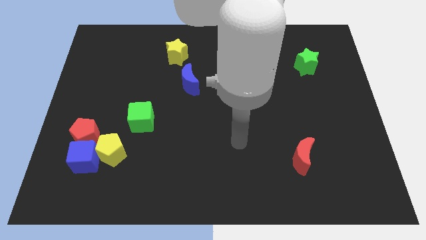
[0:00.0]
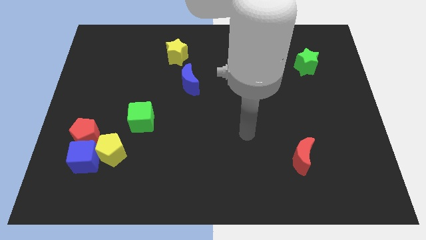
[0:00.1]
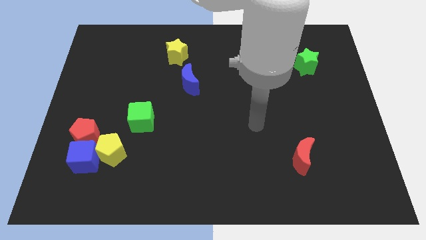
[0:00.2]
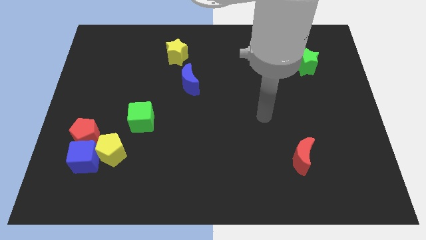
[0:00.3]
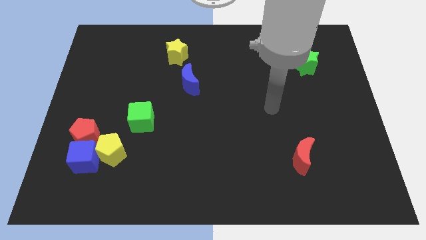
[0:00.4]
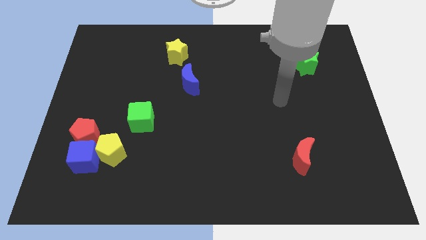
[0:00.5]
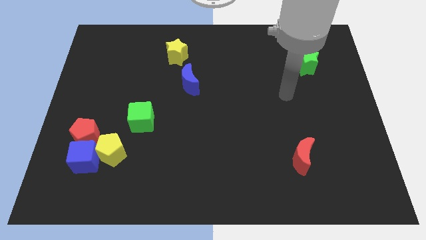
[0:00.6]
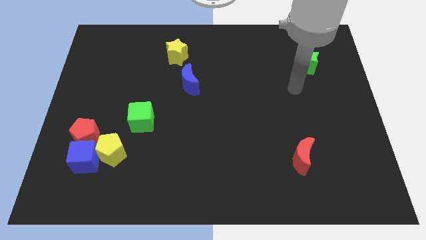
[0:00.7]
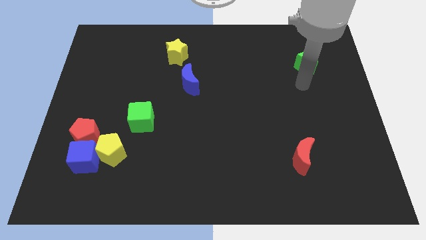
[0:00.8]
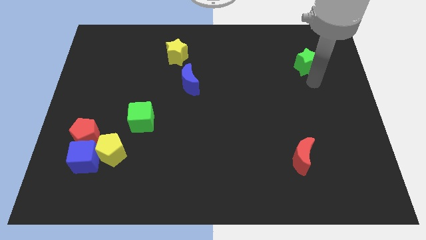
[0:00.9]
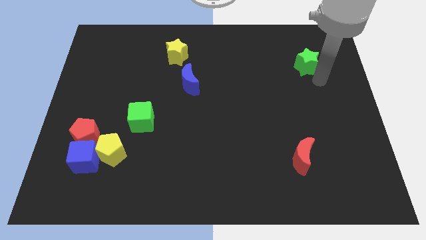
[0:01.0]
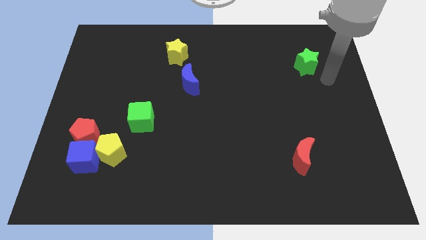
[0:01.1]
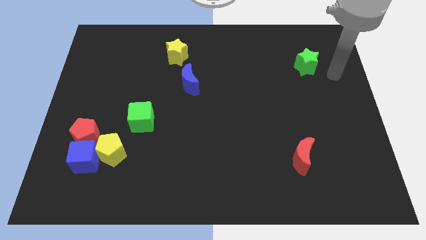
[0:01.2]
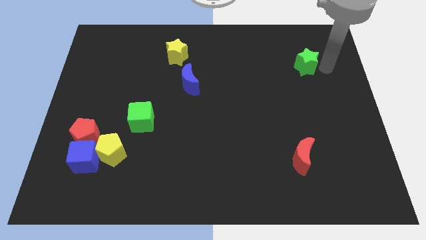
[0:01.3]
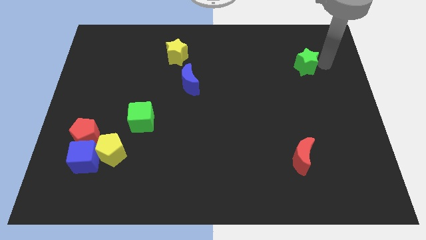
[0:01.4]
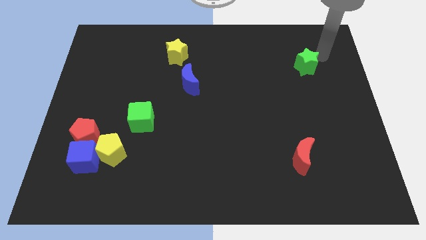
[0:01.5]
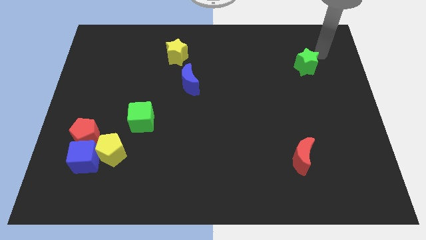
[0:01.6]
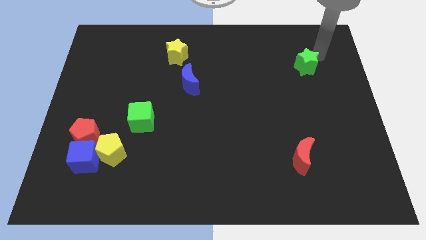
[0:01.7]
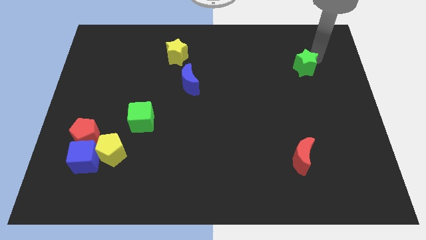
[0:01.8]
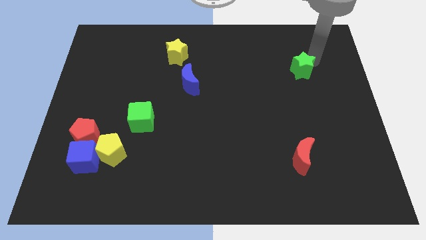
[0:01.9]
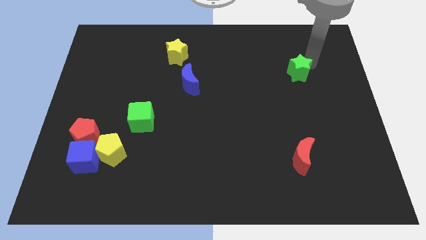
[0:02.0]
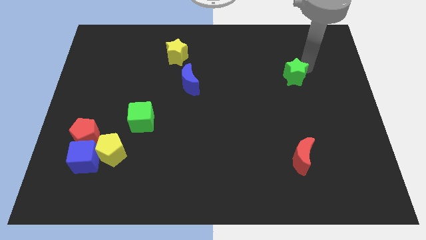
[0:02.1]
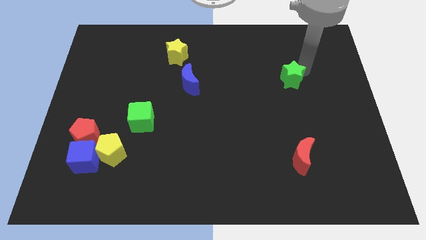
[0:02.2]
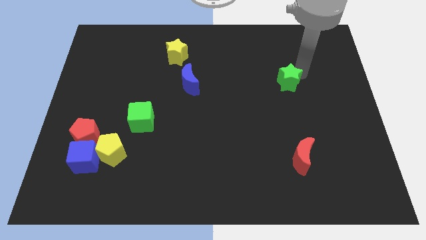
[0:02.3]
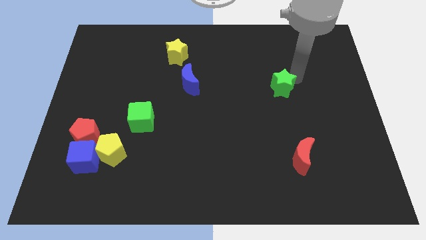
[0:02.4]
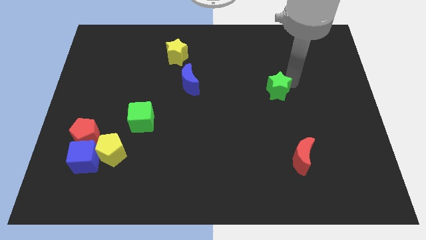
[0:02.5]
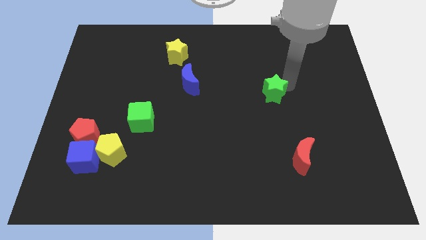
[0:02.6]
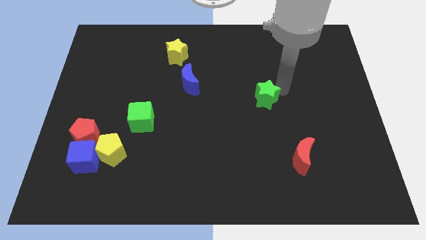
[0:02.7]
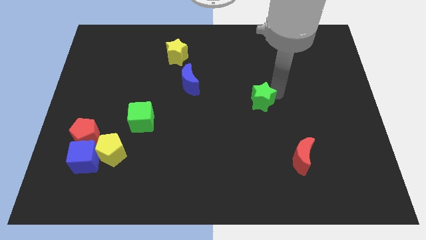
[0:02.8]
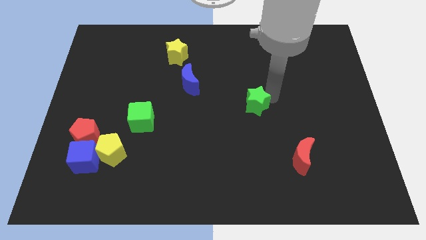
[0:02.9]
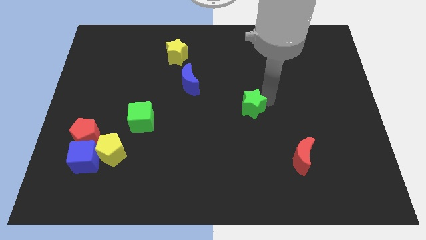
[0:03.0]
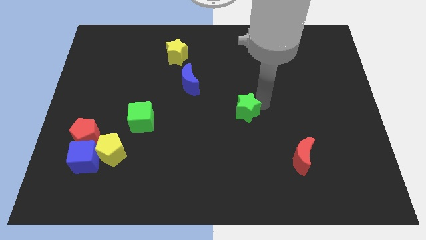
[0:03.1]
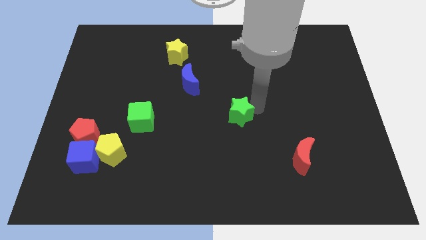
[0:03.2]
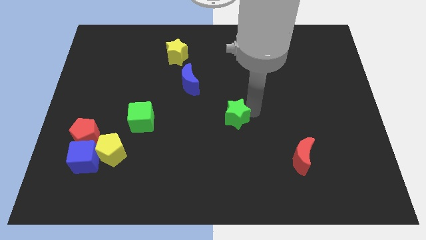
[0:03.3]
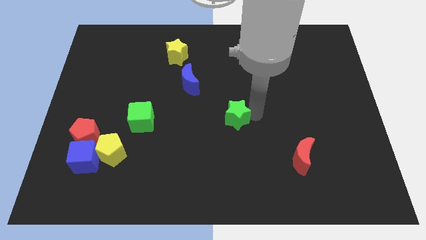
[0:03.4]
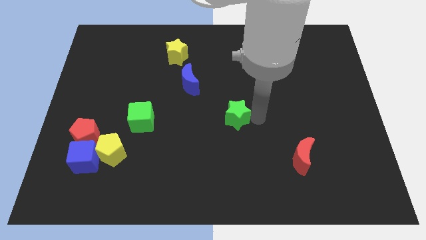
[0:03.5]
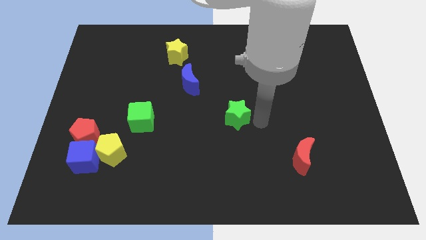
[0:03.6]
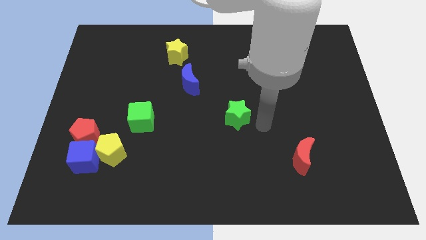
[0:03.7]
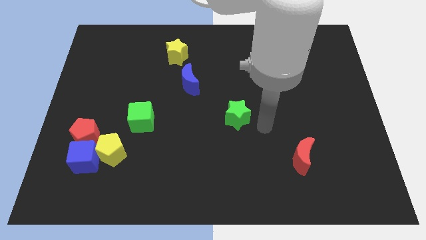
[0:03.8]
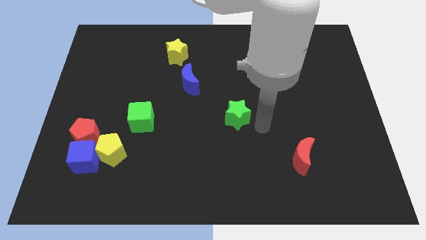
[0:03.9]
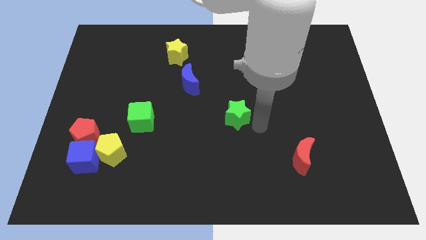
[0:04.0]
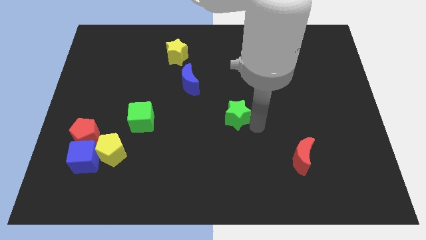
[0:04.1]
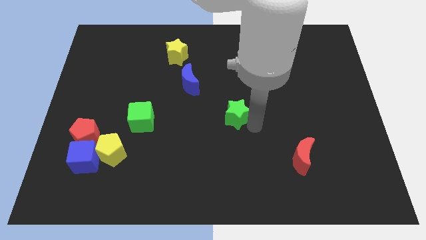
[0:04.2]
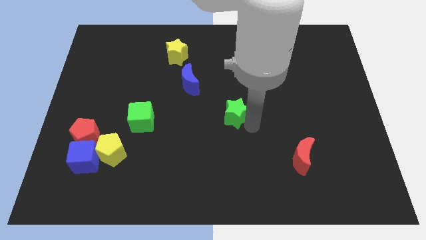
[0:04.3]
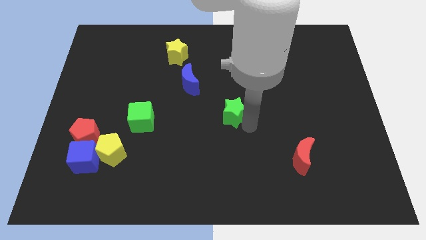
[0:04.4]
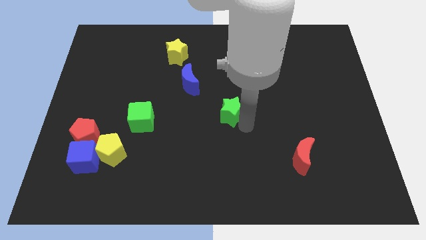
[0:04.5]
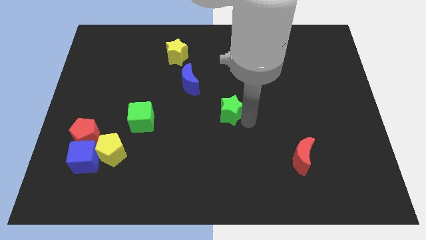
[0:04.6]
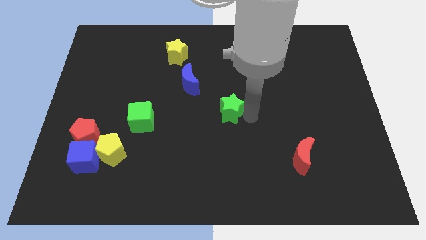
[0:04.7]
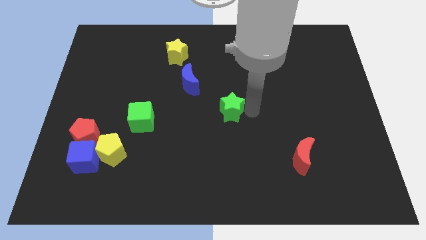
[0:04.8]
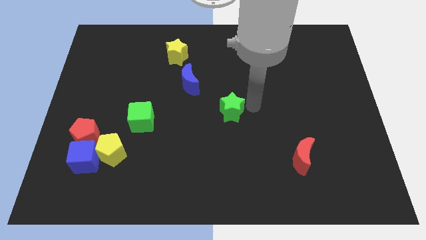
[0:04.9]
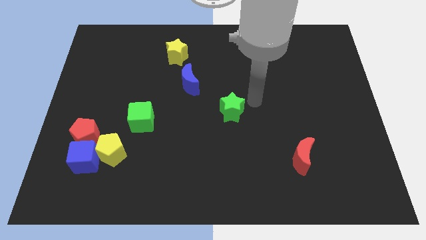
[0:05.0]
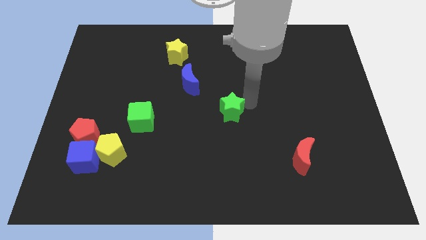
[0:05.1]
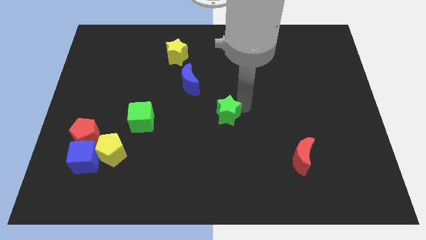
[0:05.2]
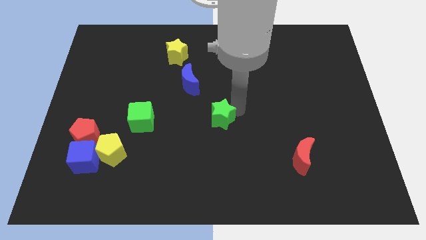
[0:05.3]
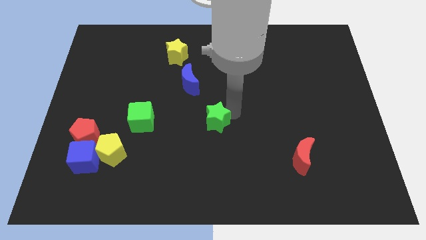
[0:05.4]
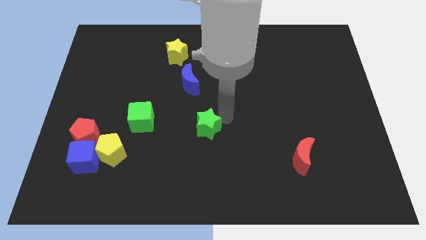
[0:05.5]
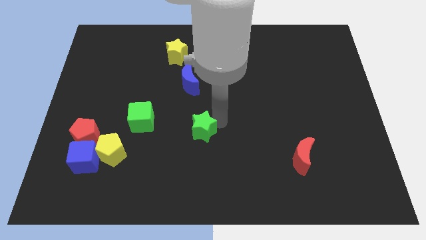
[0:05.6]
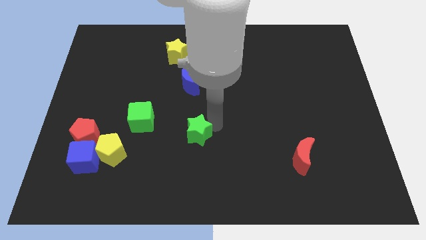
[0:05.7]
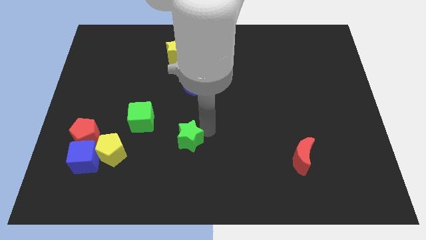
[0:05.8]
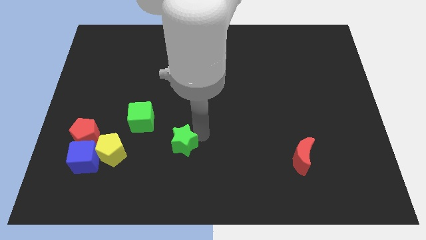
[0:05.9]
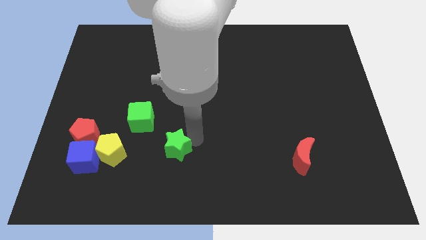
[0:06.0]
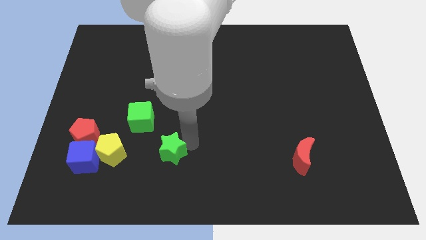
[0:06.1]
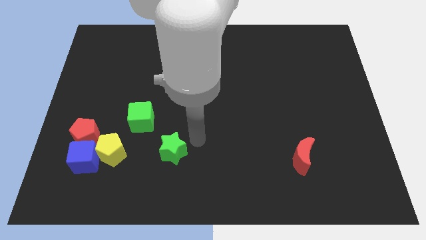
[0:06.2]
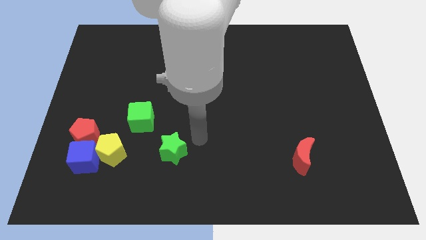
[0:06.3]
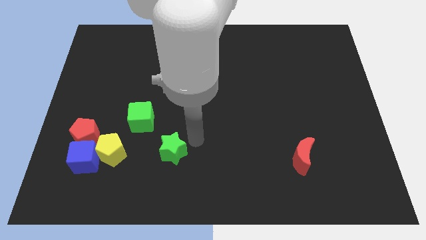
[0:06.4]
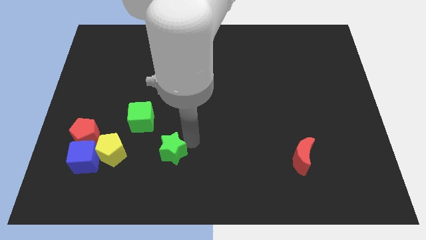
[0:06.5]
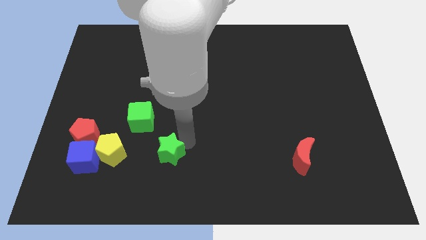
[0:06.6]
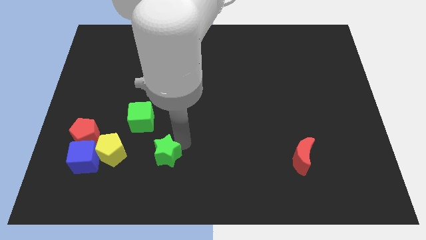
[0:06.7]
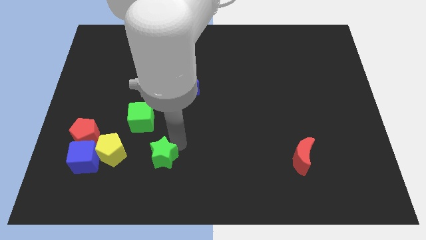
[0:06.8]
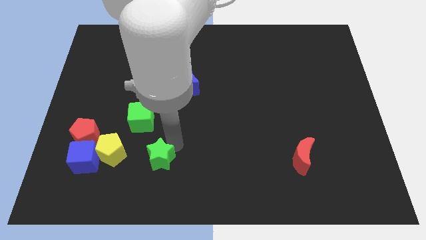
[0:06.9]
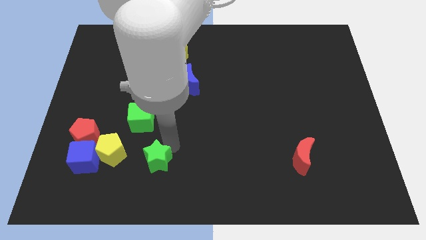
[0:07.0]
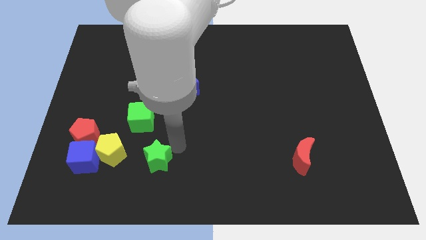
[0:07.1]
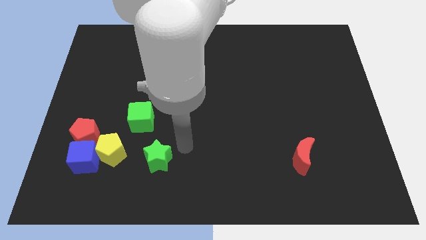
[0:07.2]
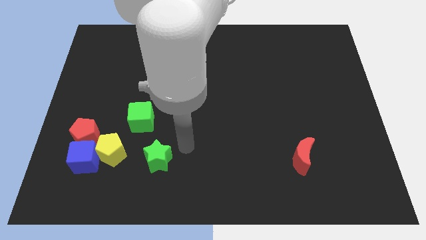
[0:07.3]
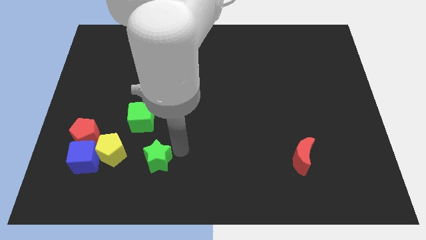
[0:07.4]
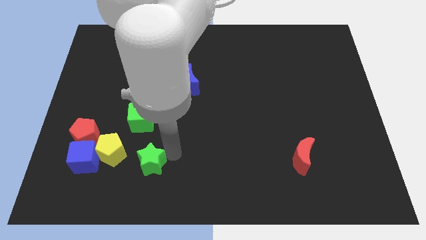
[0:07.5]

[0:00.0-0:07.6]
put the green star to the bottom right side of the yellow pentagon
